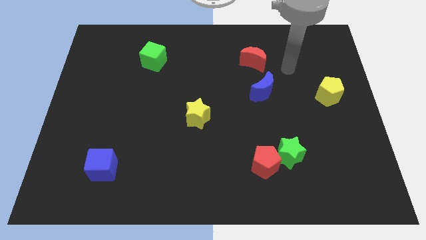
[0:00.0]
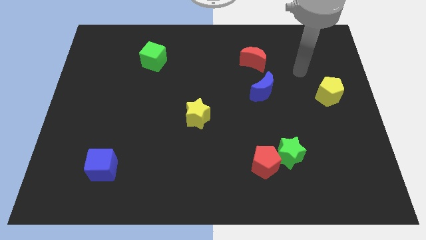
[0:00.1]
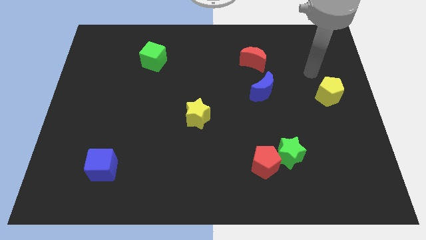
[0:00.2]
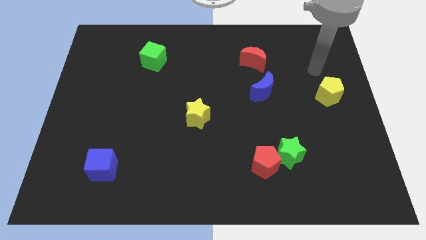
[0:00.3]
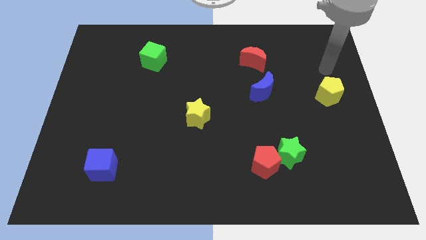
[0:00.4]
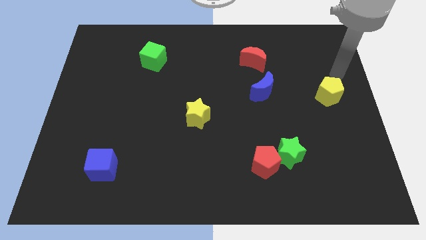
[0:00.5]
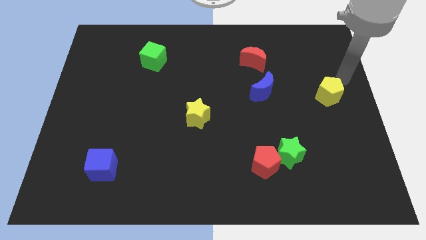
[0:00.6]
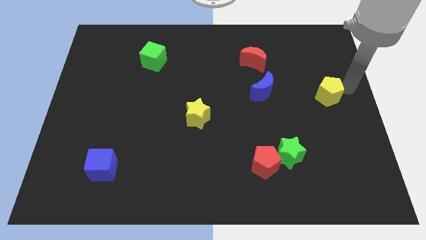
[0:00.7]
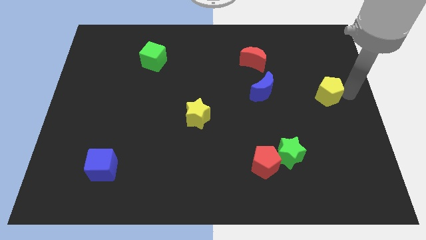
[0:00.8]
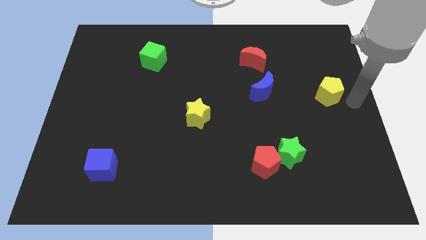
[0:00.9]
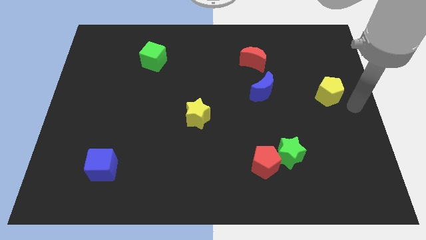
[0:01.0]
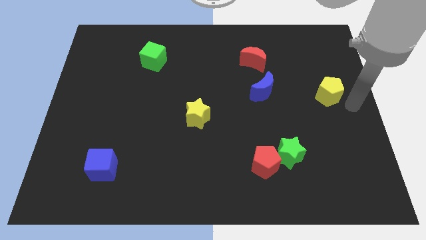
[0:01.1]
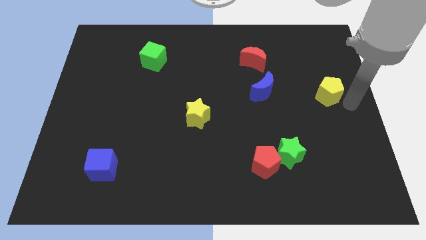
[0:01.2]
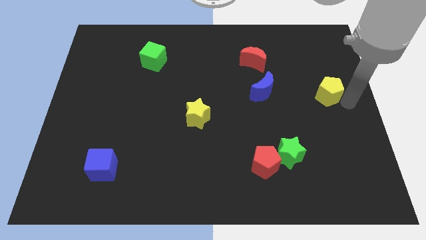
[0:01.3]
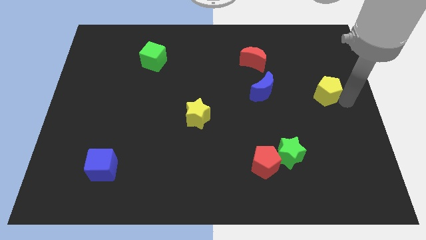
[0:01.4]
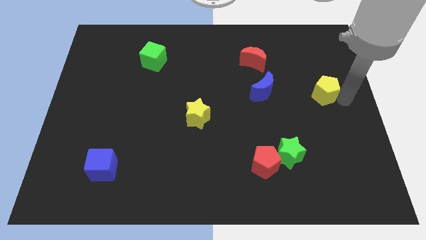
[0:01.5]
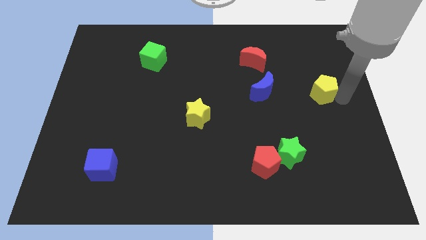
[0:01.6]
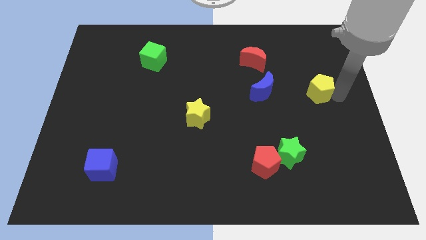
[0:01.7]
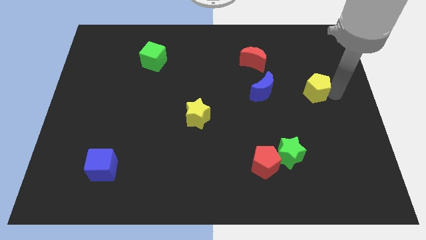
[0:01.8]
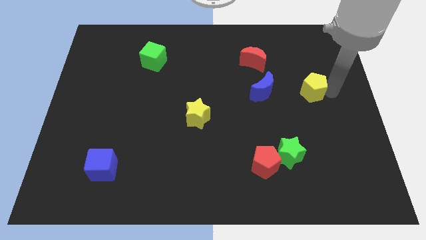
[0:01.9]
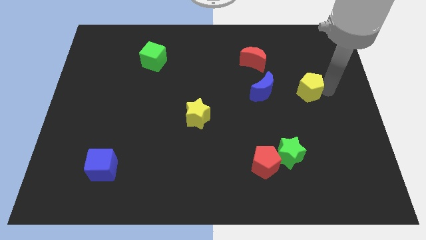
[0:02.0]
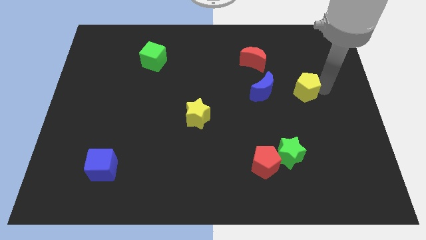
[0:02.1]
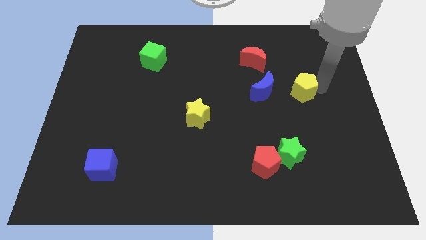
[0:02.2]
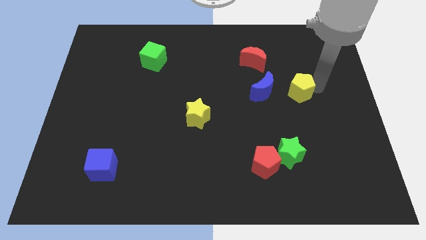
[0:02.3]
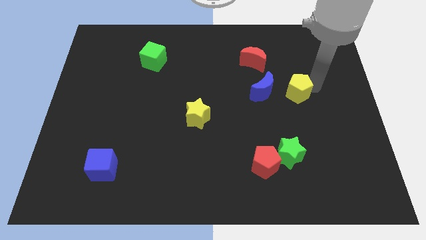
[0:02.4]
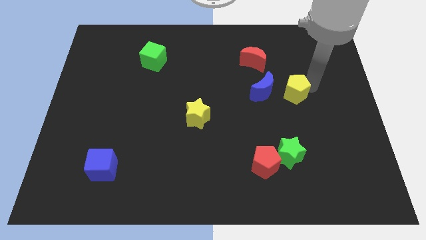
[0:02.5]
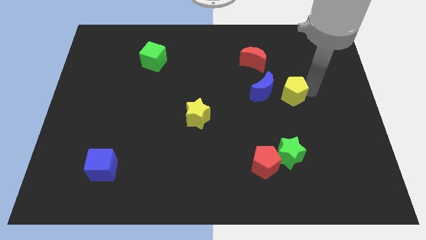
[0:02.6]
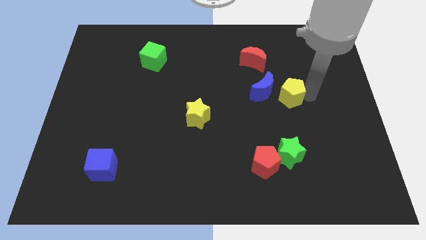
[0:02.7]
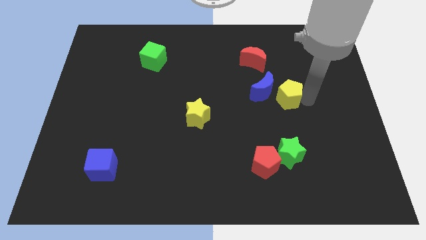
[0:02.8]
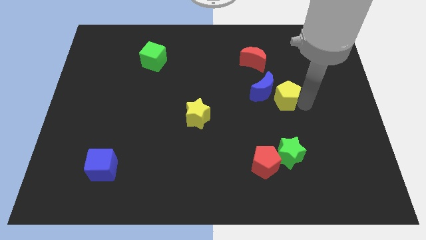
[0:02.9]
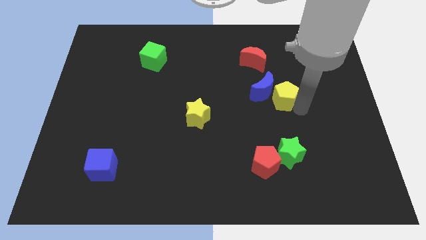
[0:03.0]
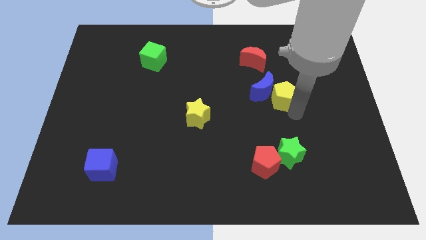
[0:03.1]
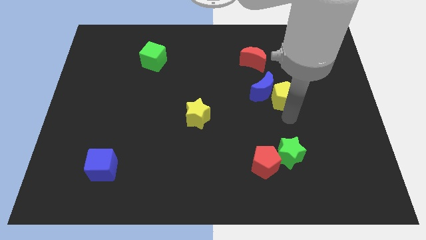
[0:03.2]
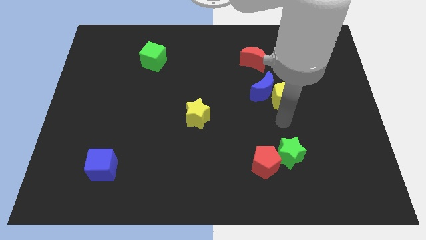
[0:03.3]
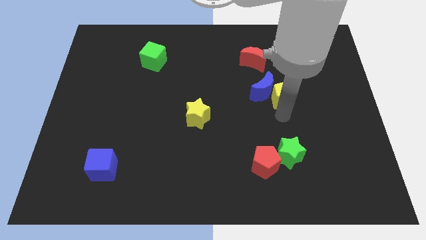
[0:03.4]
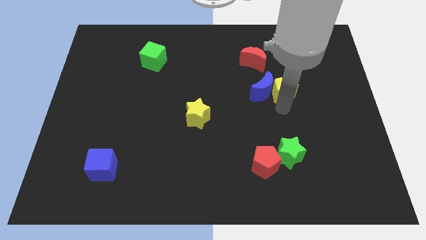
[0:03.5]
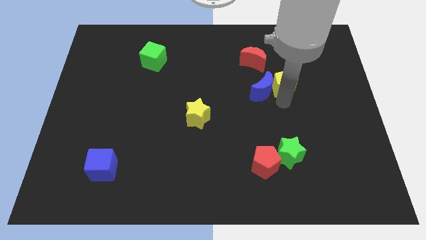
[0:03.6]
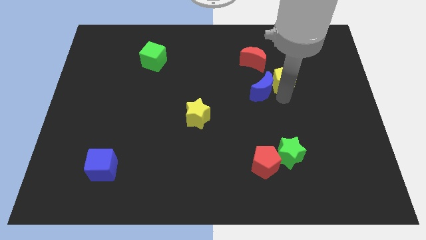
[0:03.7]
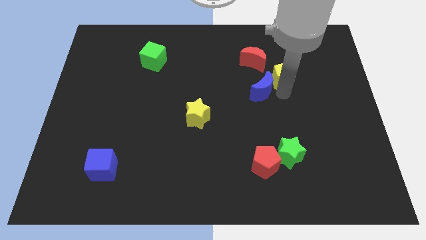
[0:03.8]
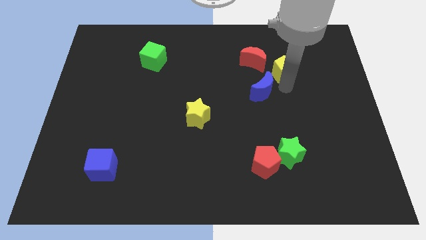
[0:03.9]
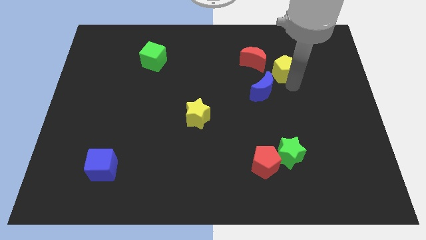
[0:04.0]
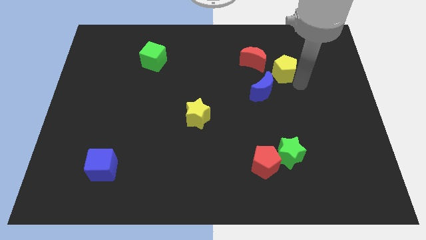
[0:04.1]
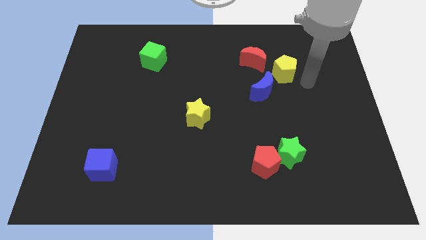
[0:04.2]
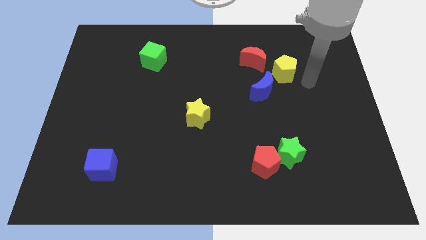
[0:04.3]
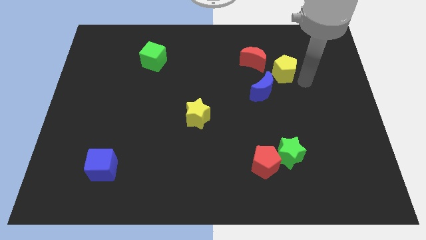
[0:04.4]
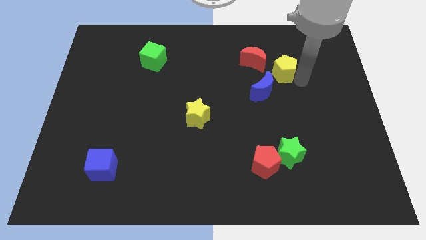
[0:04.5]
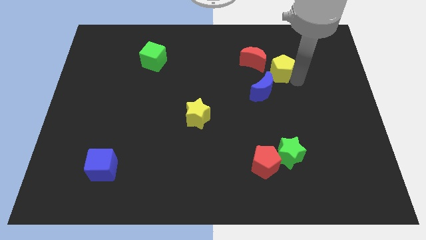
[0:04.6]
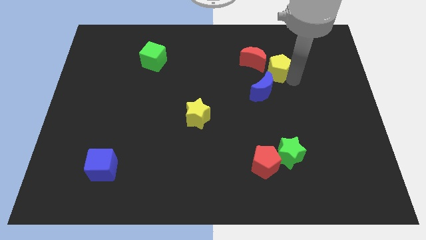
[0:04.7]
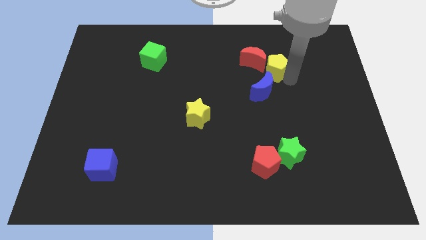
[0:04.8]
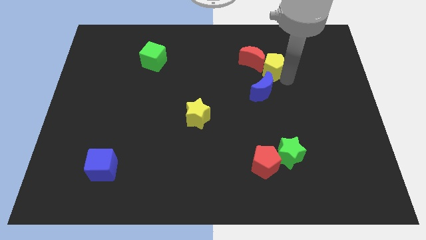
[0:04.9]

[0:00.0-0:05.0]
put the yellow pentagon close to the red moon

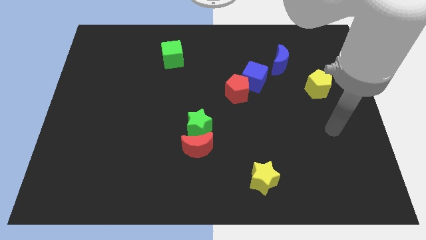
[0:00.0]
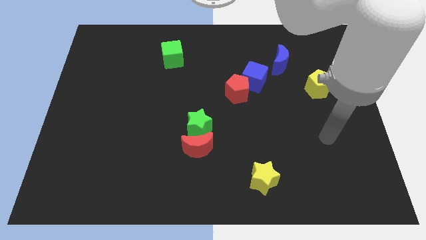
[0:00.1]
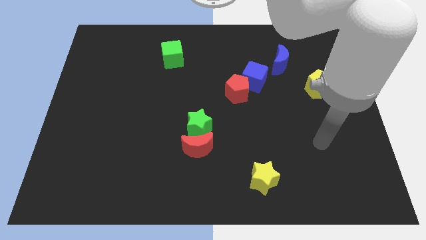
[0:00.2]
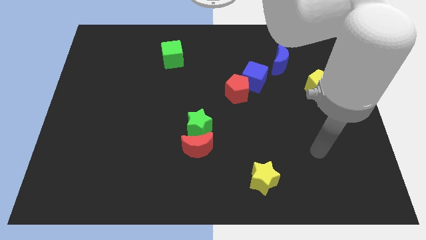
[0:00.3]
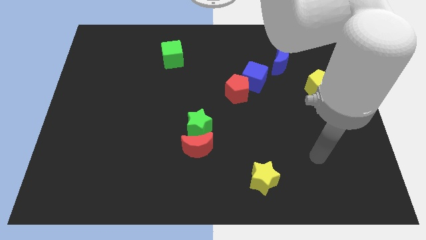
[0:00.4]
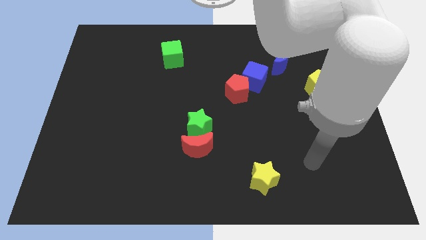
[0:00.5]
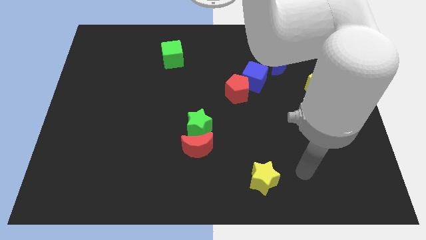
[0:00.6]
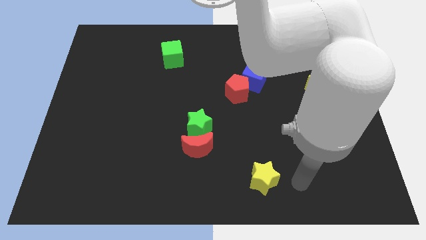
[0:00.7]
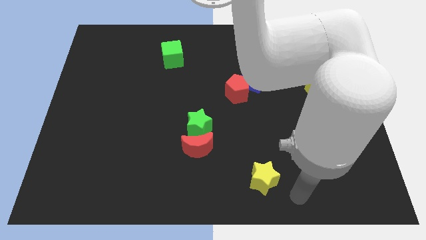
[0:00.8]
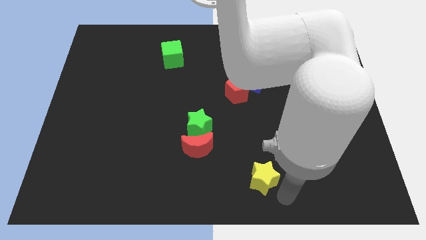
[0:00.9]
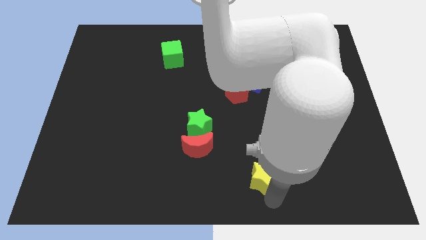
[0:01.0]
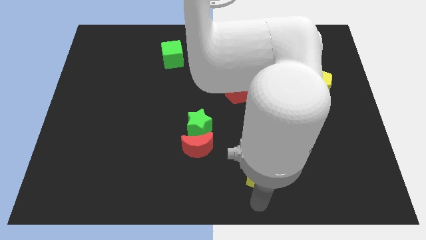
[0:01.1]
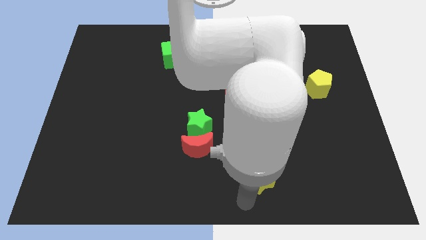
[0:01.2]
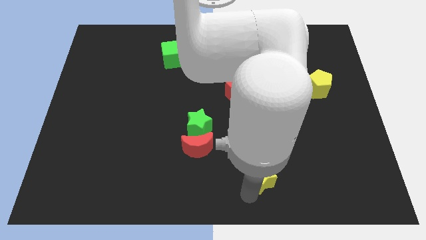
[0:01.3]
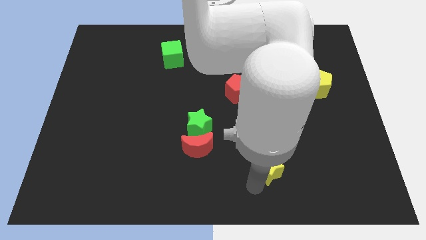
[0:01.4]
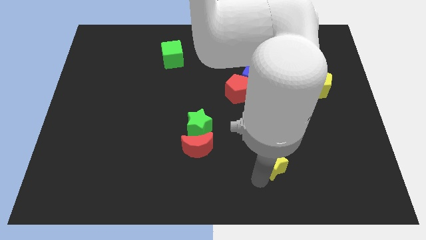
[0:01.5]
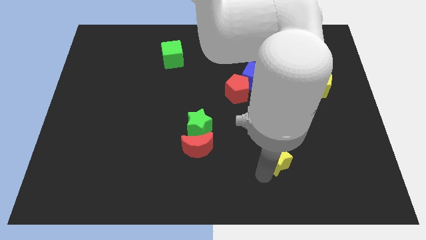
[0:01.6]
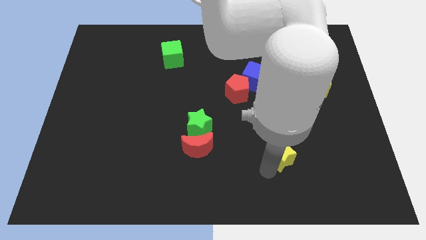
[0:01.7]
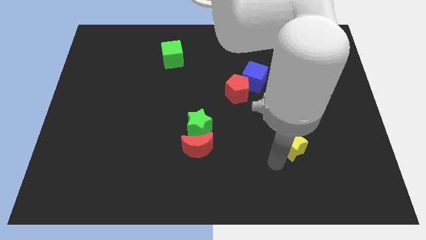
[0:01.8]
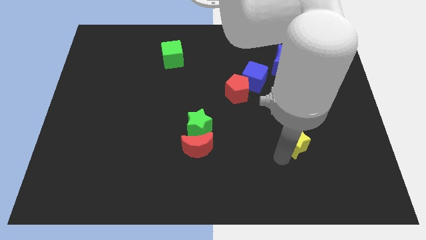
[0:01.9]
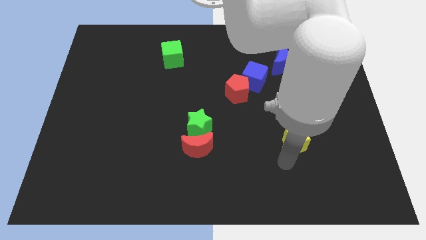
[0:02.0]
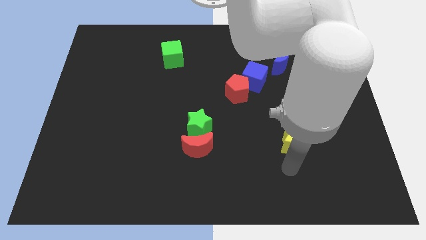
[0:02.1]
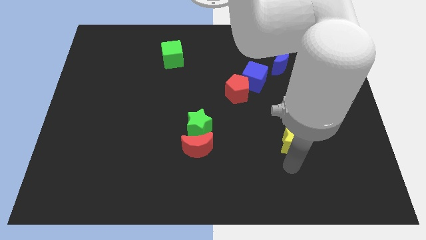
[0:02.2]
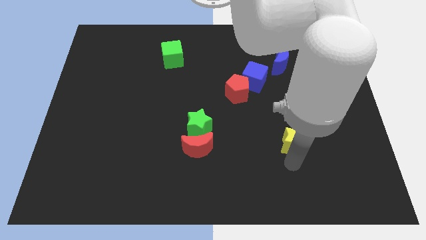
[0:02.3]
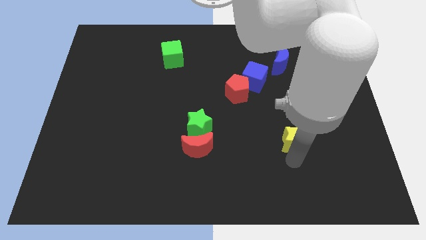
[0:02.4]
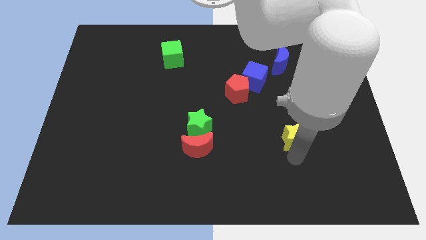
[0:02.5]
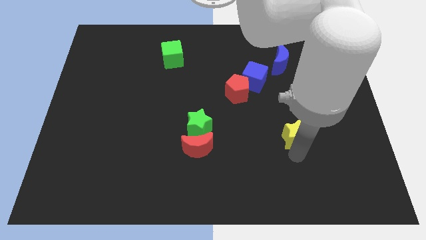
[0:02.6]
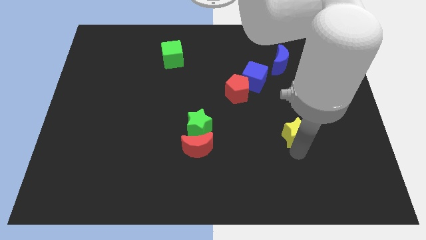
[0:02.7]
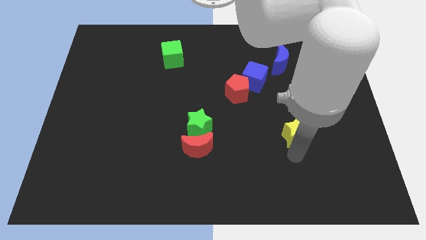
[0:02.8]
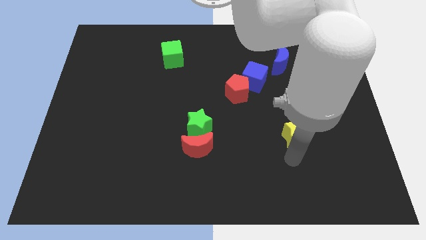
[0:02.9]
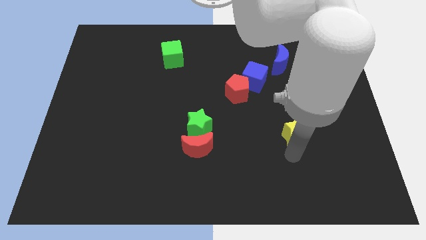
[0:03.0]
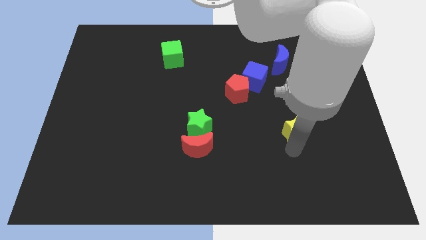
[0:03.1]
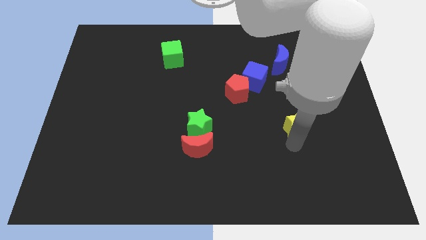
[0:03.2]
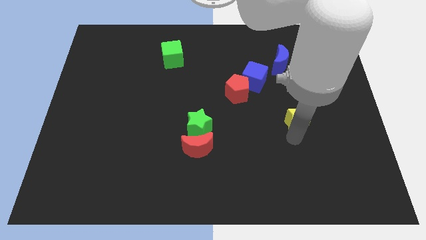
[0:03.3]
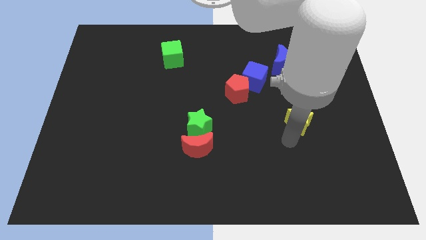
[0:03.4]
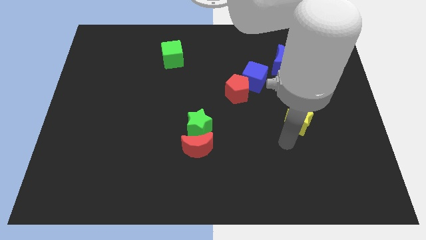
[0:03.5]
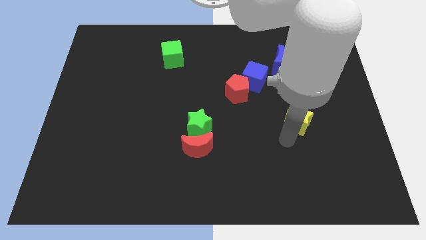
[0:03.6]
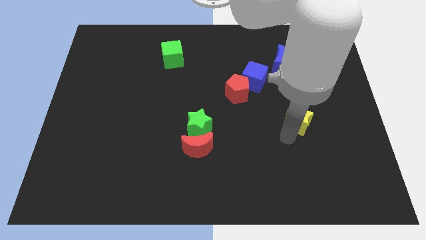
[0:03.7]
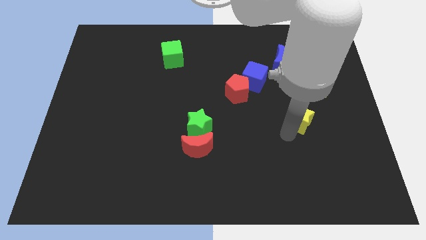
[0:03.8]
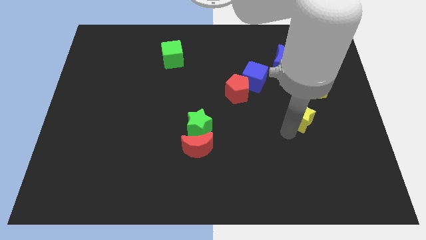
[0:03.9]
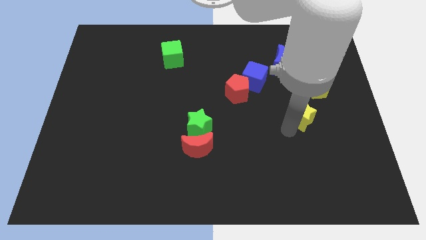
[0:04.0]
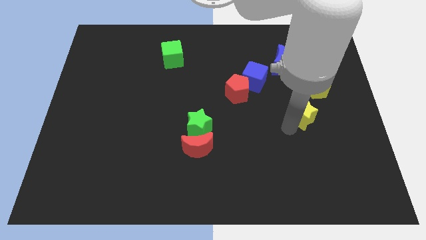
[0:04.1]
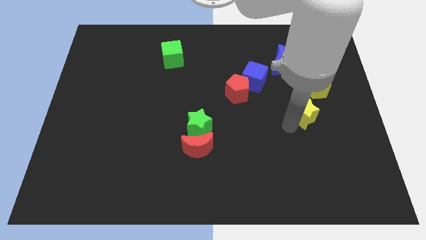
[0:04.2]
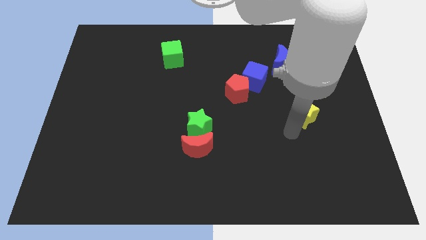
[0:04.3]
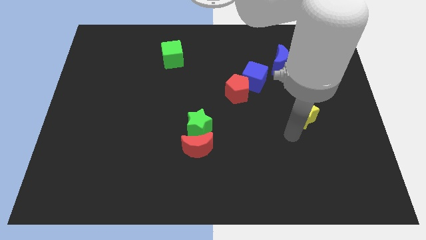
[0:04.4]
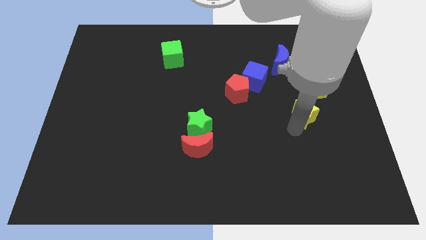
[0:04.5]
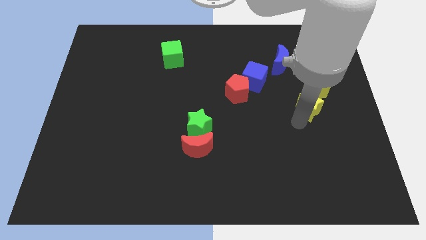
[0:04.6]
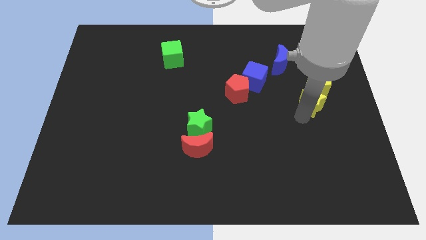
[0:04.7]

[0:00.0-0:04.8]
slide the yellow star to the yellow pentagon
